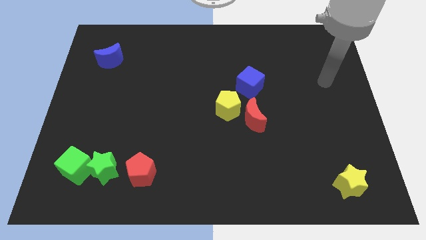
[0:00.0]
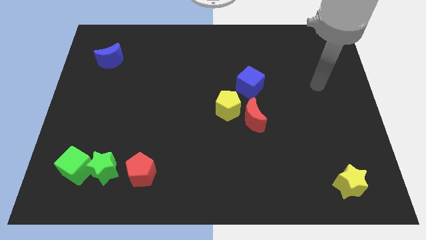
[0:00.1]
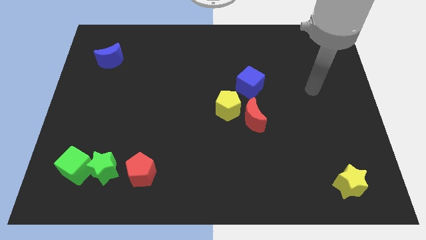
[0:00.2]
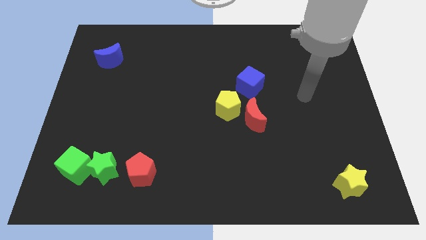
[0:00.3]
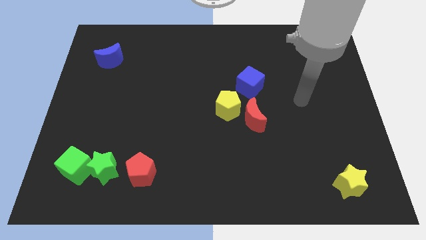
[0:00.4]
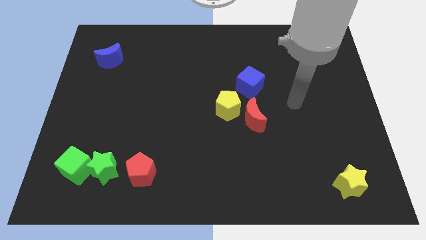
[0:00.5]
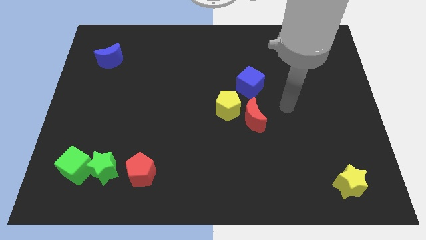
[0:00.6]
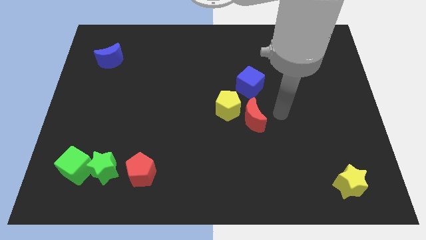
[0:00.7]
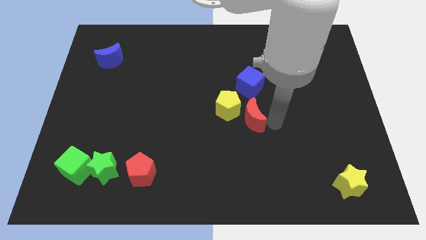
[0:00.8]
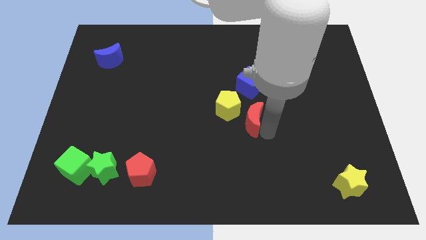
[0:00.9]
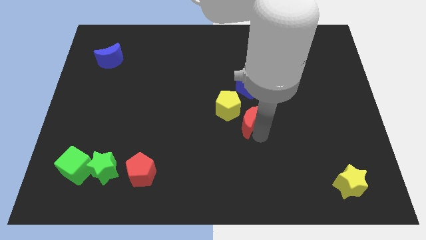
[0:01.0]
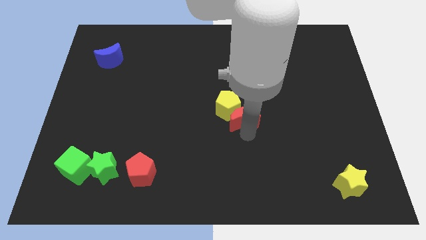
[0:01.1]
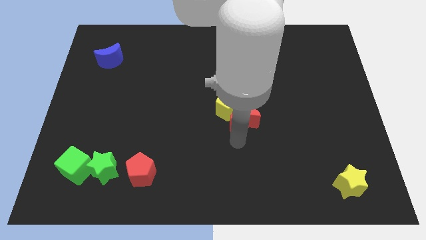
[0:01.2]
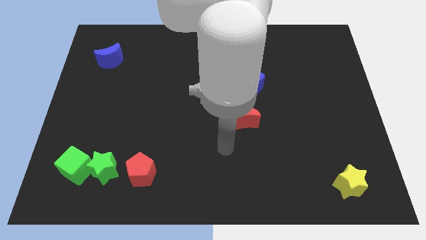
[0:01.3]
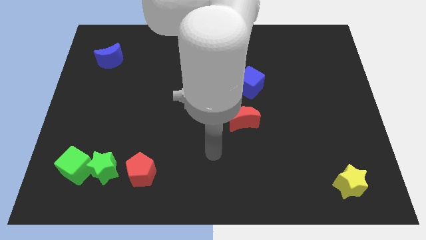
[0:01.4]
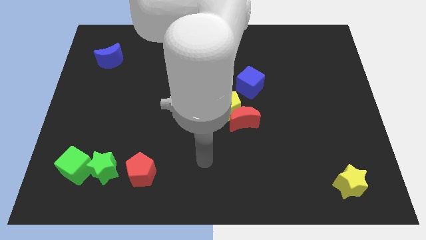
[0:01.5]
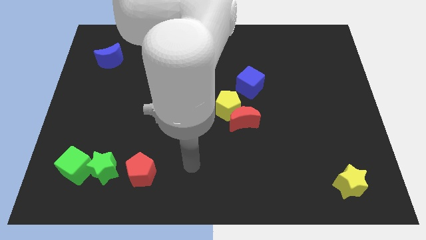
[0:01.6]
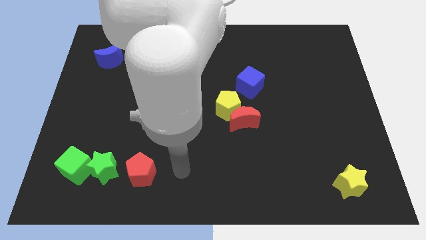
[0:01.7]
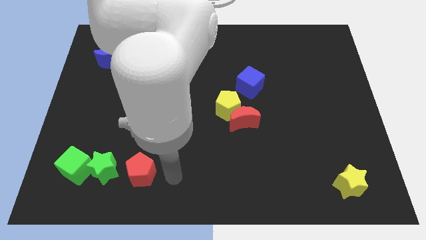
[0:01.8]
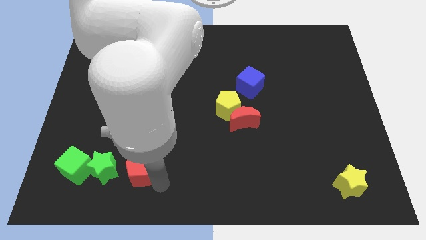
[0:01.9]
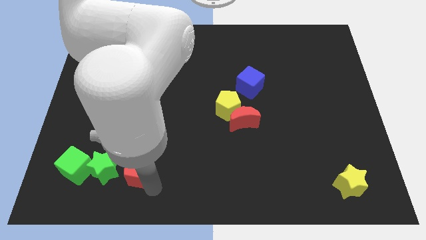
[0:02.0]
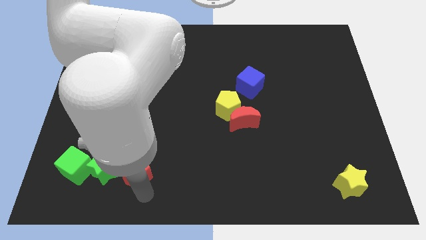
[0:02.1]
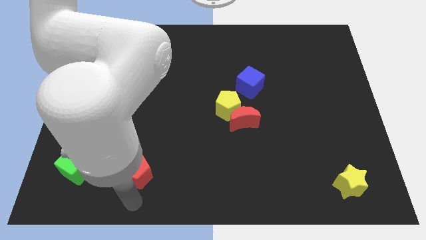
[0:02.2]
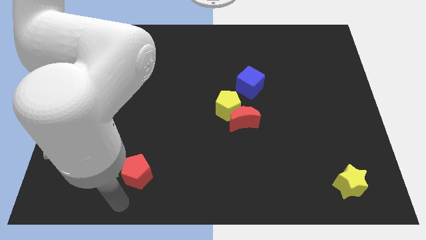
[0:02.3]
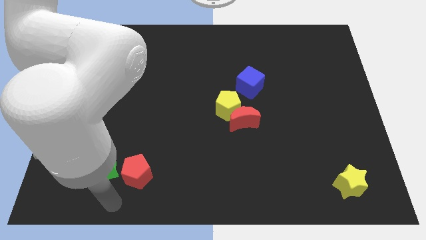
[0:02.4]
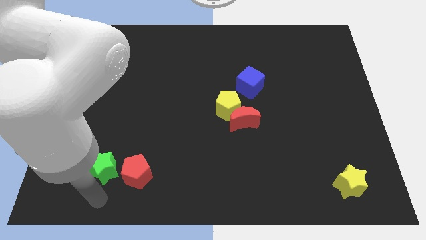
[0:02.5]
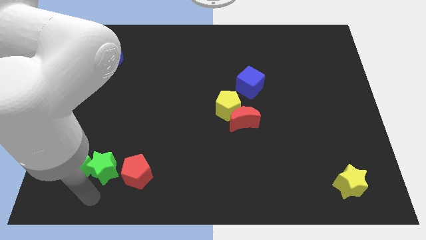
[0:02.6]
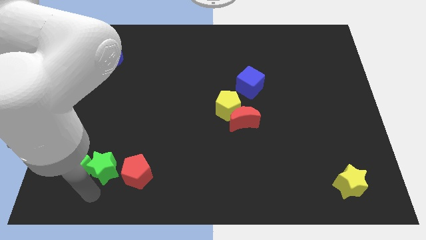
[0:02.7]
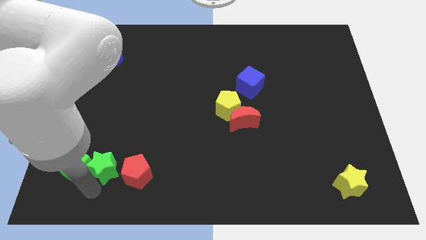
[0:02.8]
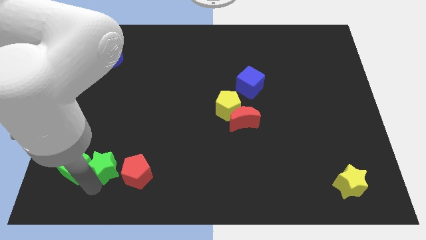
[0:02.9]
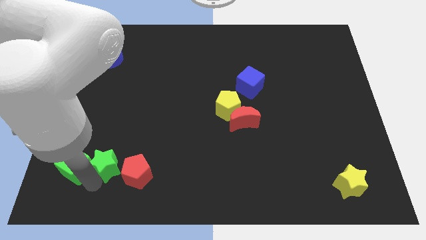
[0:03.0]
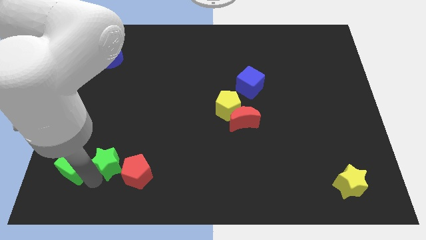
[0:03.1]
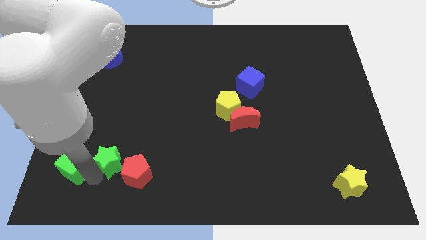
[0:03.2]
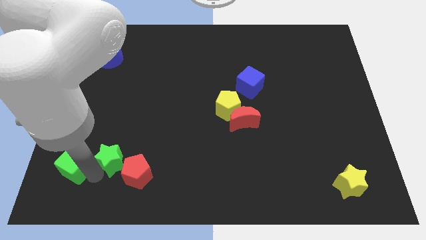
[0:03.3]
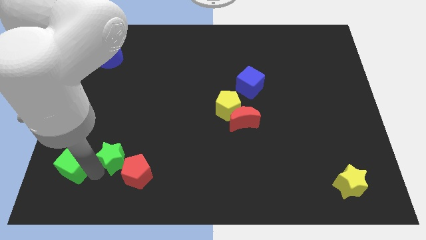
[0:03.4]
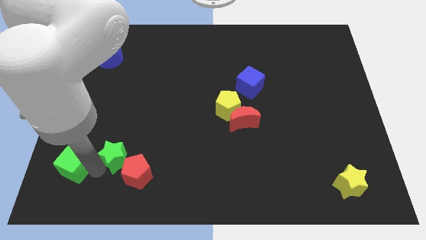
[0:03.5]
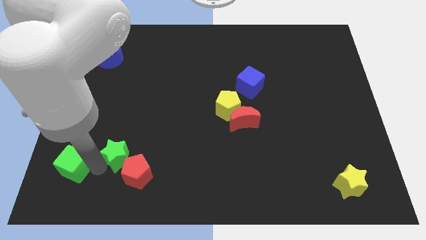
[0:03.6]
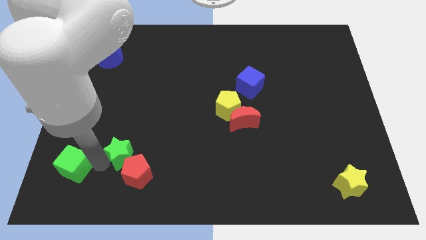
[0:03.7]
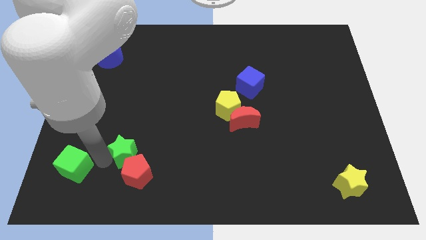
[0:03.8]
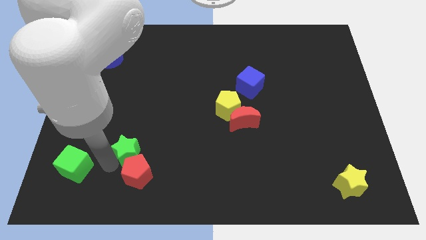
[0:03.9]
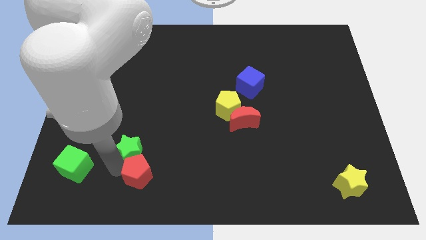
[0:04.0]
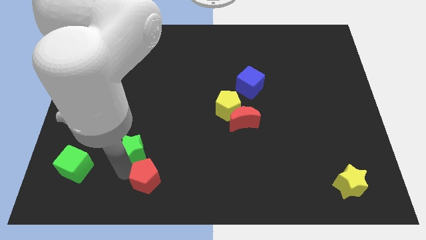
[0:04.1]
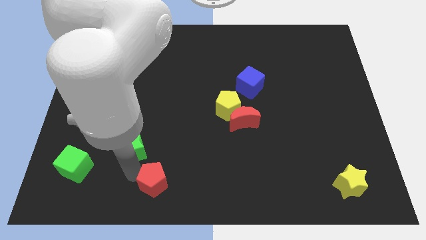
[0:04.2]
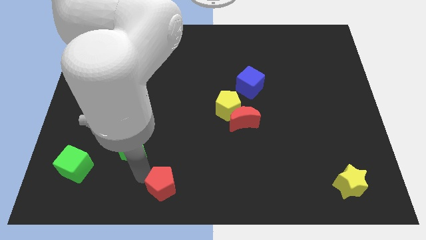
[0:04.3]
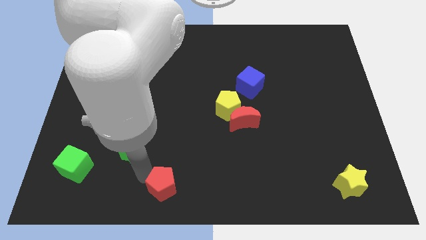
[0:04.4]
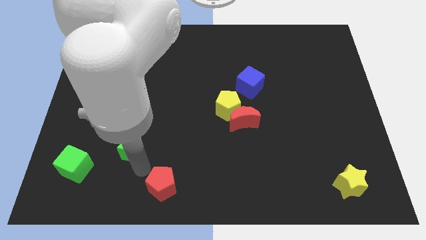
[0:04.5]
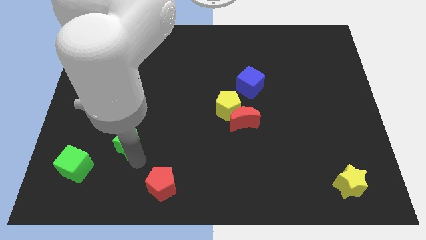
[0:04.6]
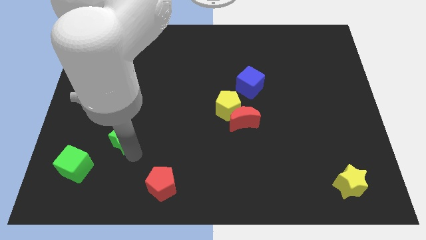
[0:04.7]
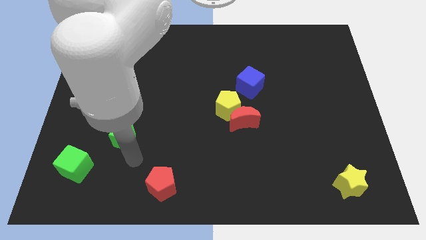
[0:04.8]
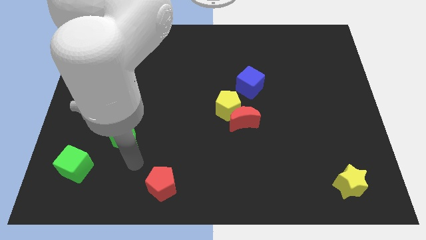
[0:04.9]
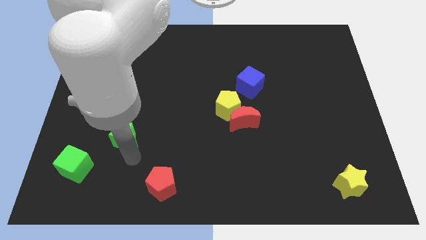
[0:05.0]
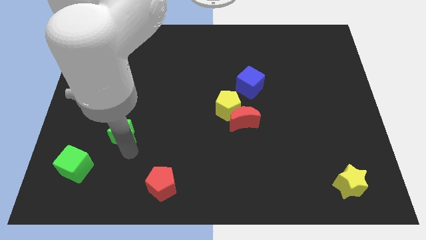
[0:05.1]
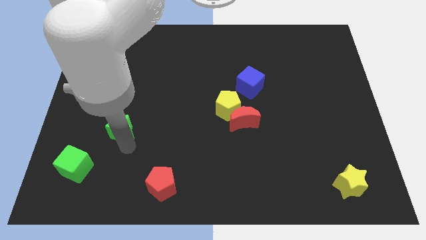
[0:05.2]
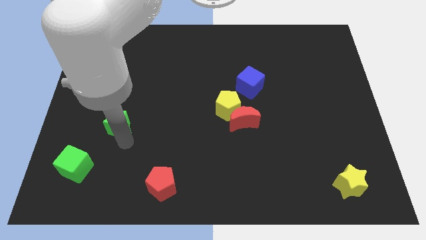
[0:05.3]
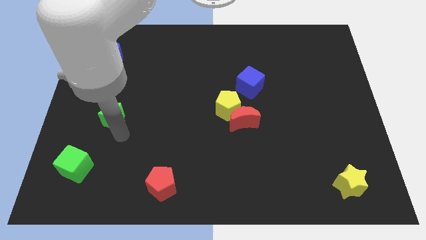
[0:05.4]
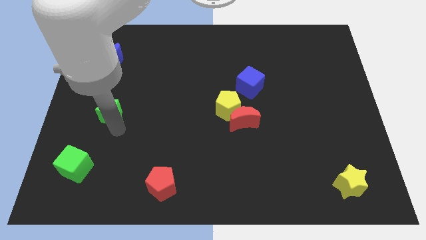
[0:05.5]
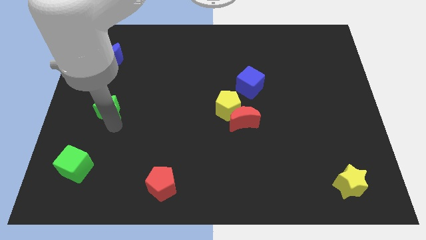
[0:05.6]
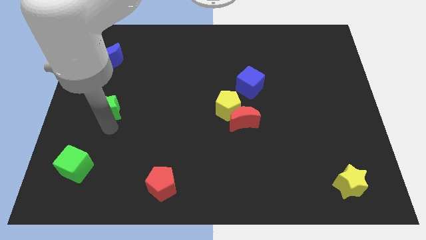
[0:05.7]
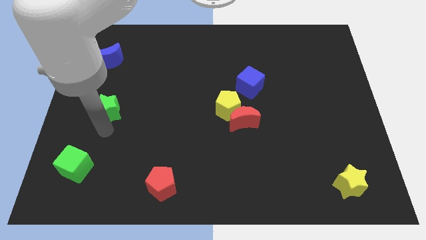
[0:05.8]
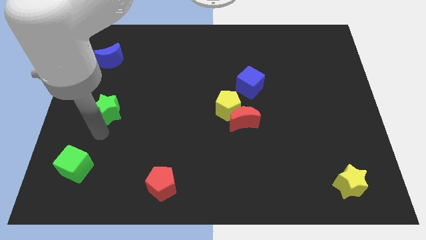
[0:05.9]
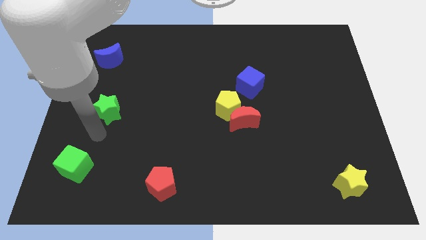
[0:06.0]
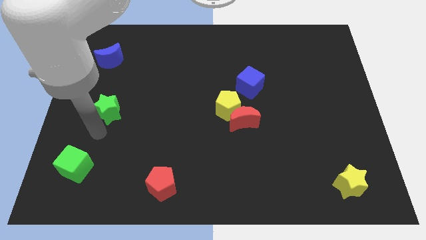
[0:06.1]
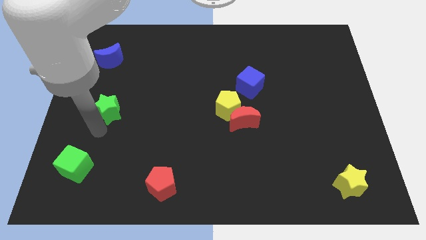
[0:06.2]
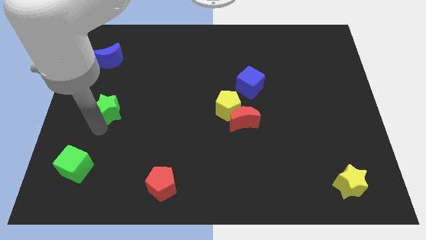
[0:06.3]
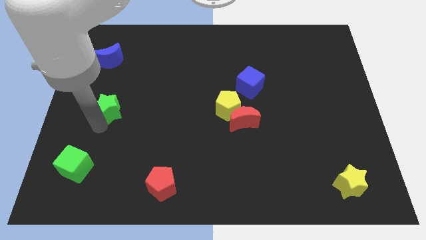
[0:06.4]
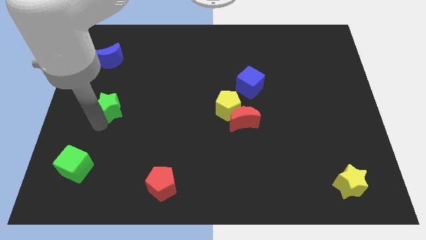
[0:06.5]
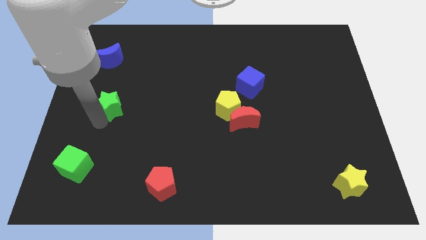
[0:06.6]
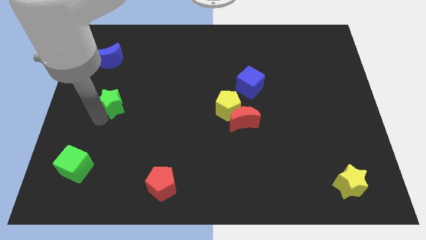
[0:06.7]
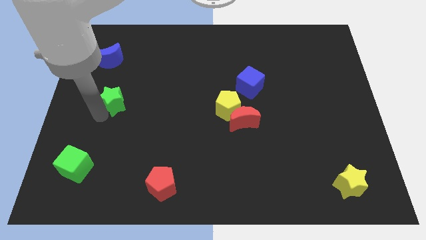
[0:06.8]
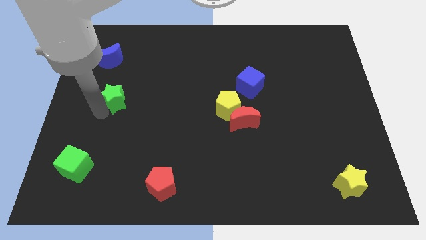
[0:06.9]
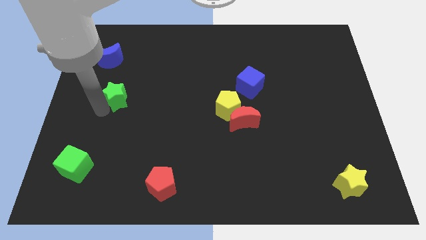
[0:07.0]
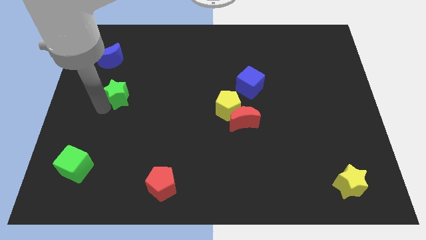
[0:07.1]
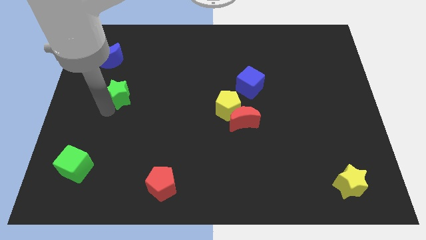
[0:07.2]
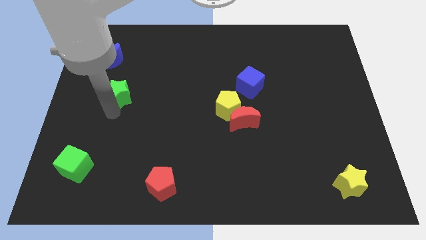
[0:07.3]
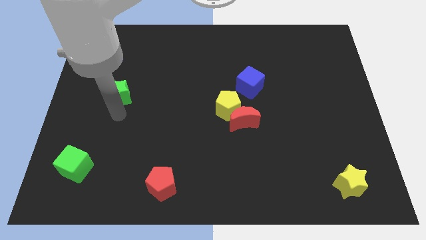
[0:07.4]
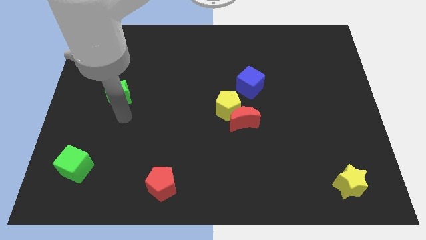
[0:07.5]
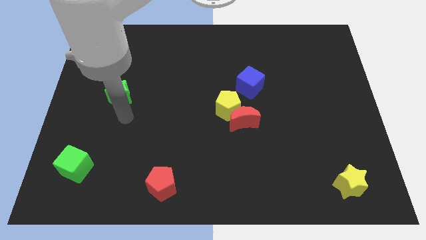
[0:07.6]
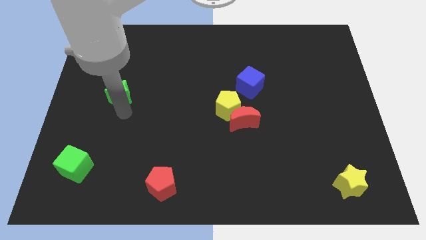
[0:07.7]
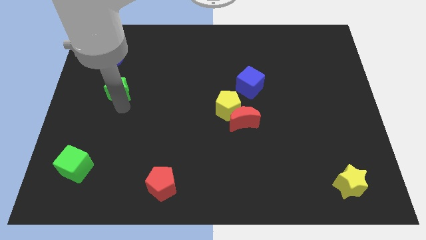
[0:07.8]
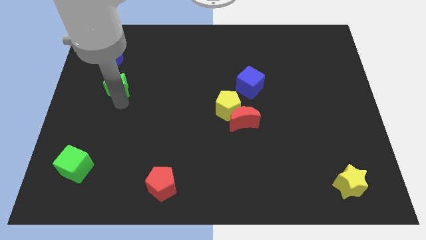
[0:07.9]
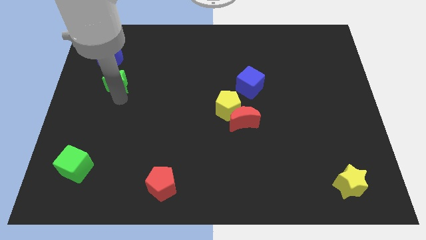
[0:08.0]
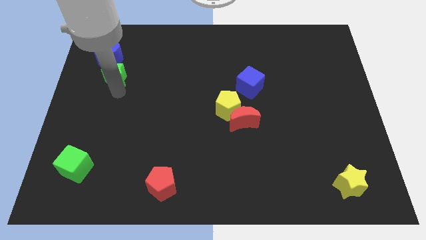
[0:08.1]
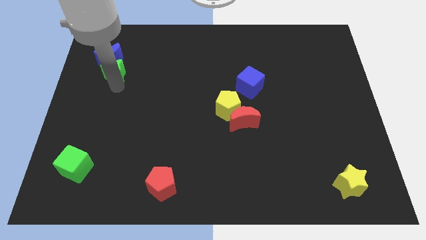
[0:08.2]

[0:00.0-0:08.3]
push the green star to the blue moon
